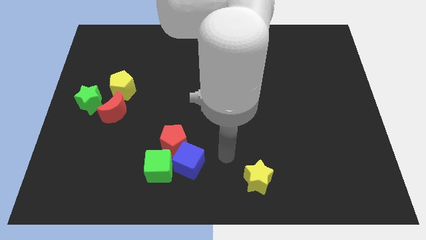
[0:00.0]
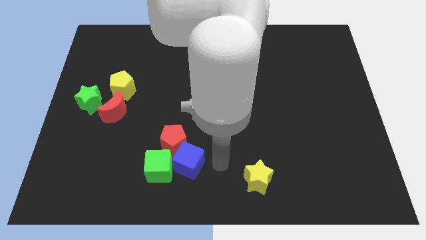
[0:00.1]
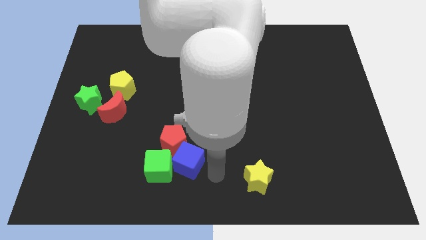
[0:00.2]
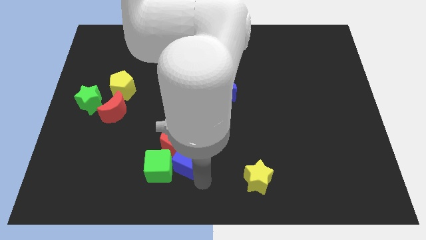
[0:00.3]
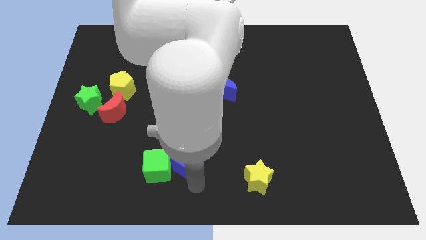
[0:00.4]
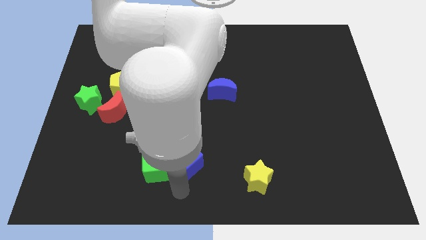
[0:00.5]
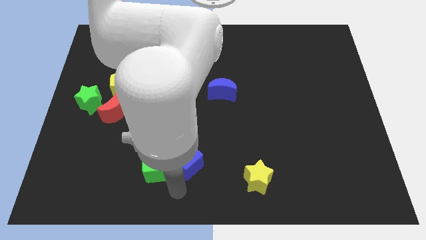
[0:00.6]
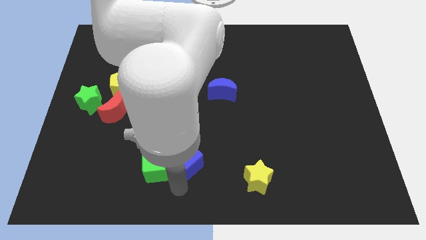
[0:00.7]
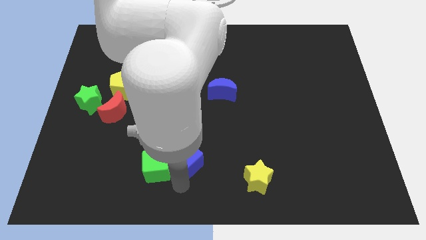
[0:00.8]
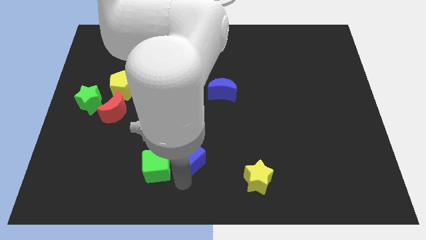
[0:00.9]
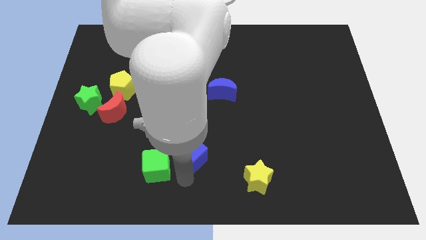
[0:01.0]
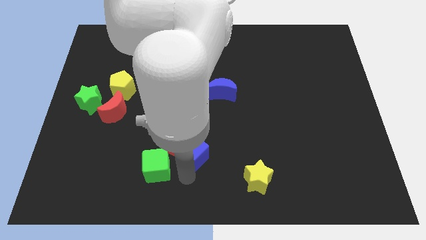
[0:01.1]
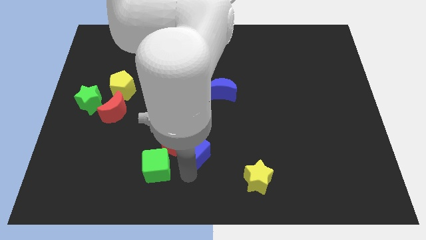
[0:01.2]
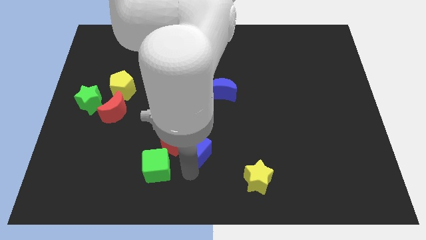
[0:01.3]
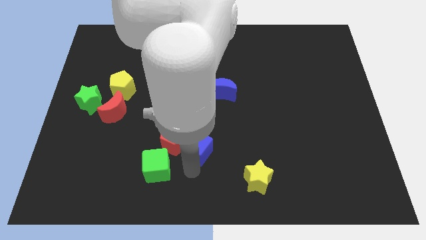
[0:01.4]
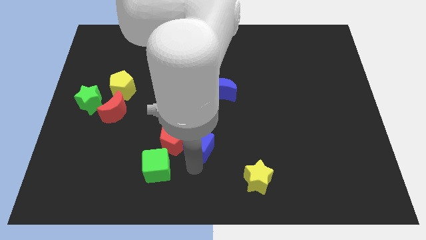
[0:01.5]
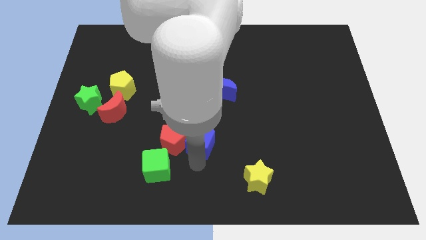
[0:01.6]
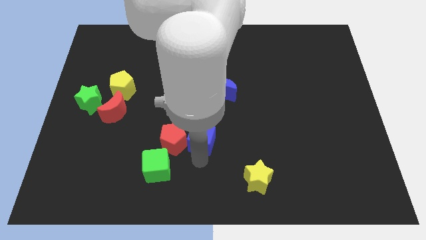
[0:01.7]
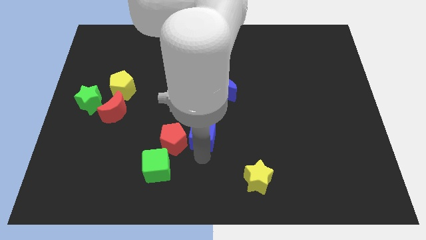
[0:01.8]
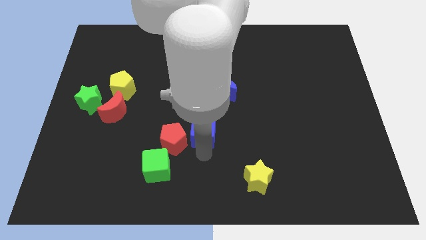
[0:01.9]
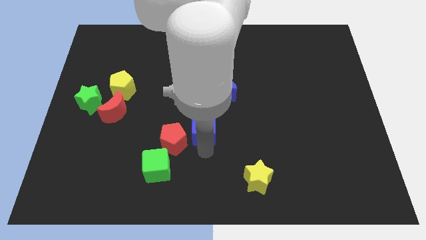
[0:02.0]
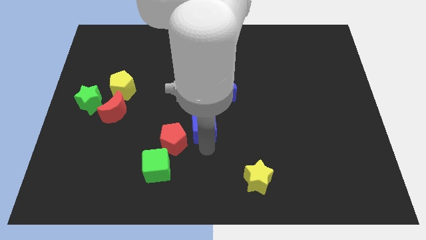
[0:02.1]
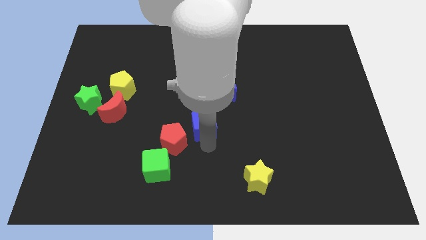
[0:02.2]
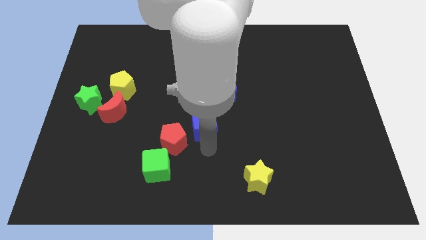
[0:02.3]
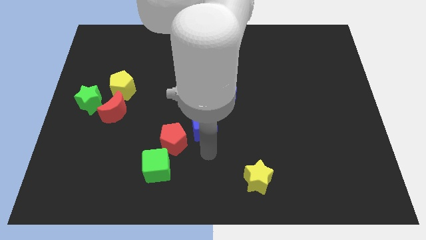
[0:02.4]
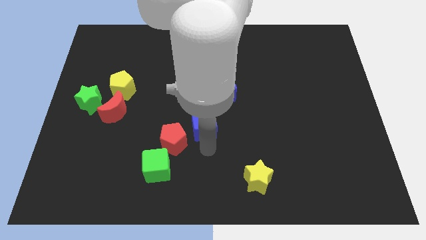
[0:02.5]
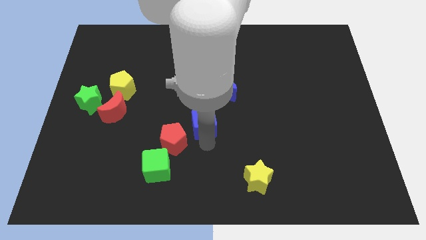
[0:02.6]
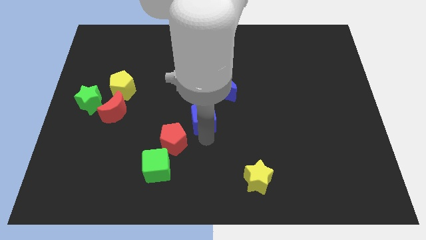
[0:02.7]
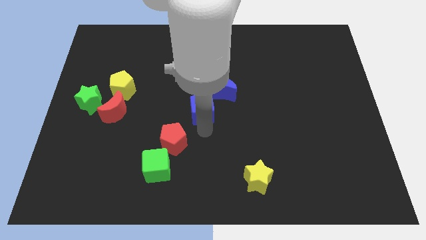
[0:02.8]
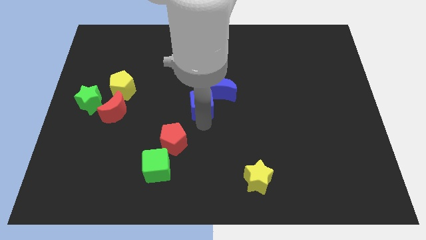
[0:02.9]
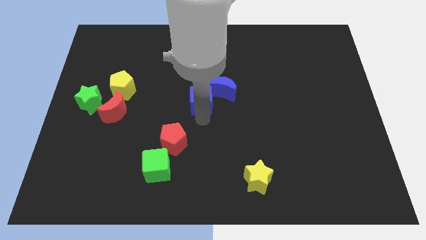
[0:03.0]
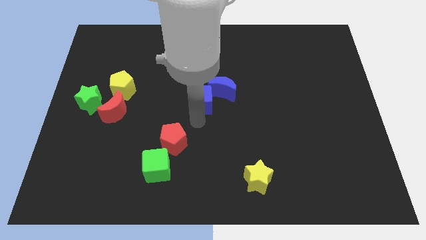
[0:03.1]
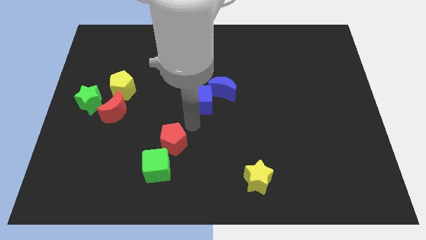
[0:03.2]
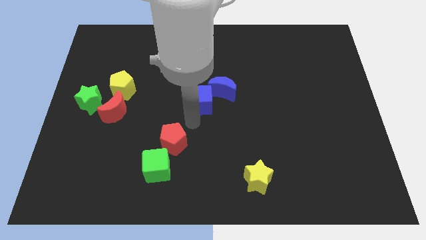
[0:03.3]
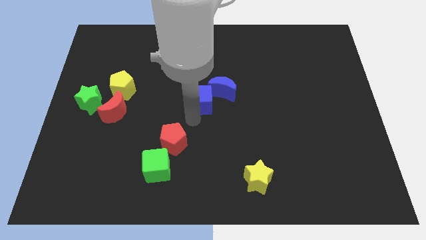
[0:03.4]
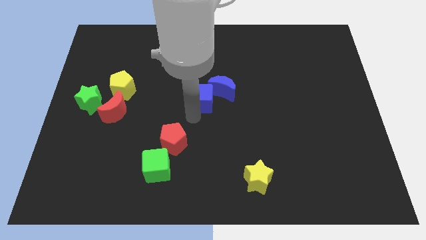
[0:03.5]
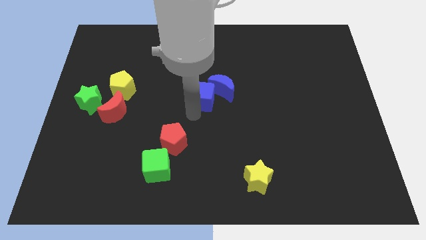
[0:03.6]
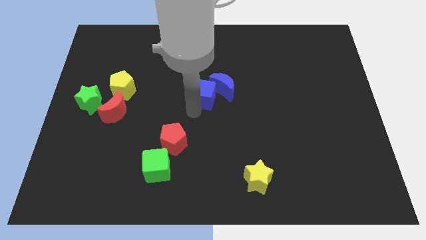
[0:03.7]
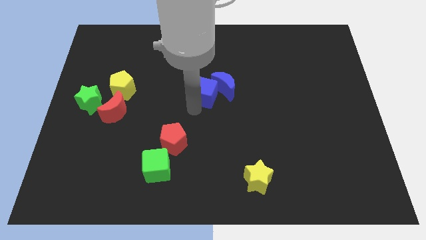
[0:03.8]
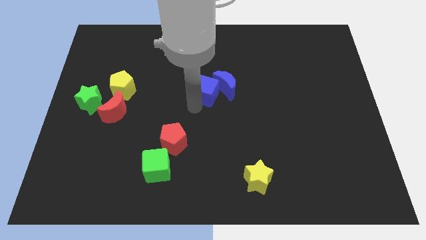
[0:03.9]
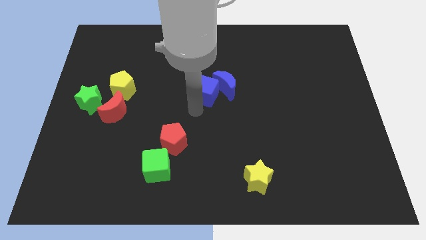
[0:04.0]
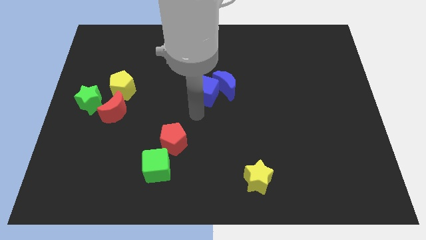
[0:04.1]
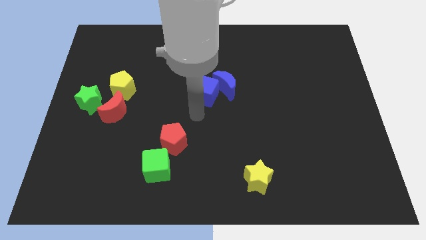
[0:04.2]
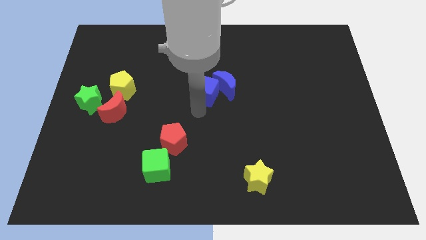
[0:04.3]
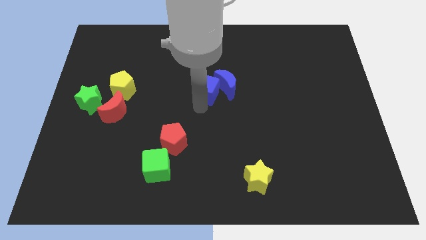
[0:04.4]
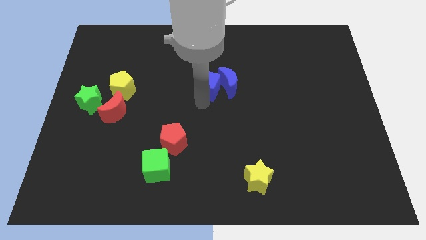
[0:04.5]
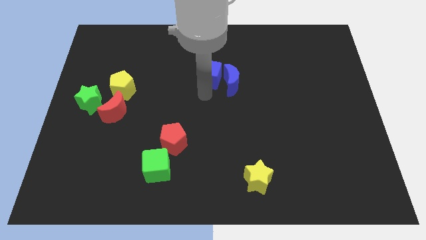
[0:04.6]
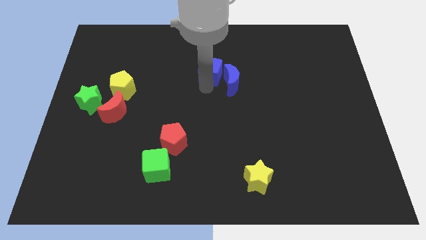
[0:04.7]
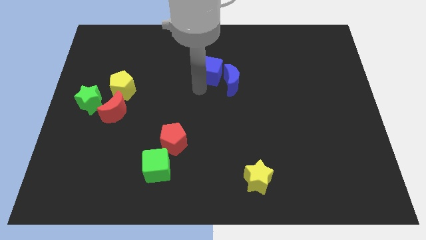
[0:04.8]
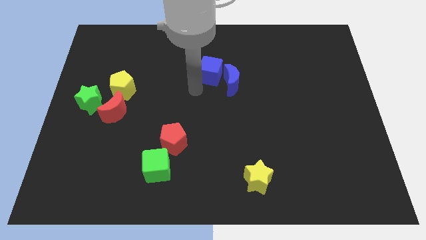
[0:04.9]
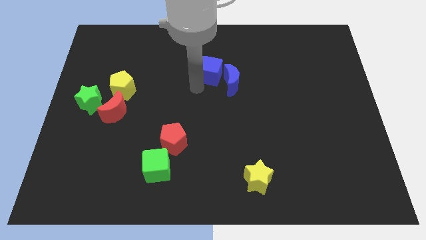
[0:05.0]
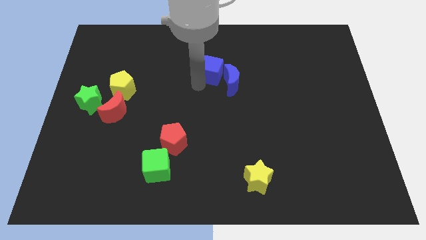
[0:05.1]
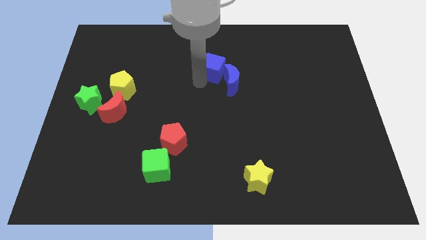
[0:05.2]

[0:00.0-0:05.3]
slide the blue cube to the top of the blue moon

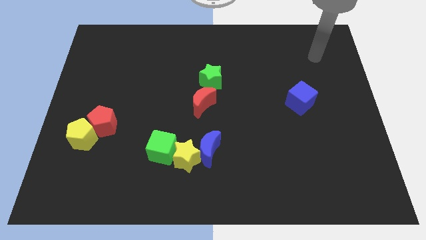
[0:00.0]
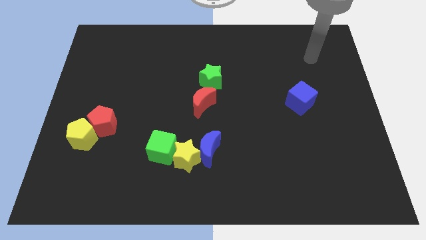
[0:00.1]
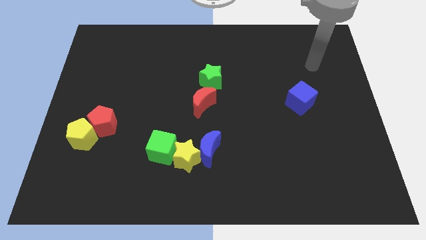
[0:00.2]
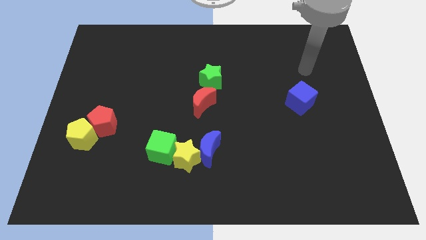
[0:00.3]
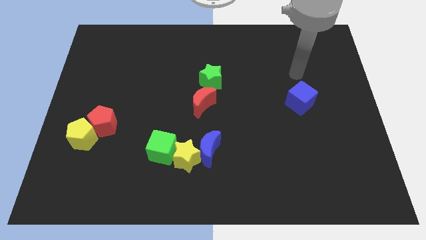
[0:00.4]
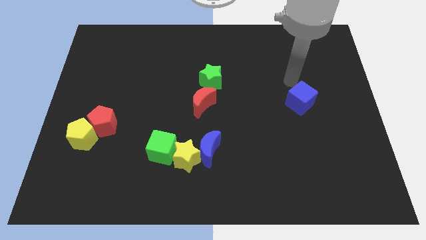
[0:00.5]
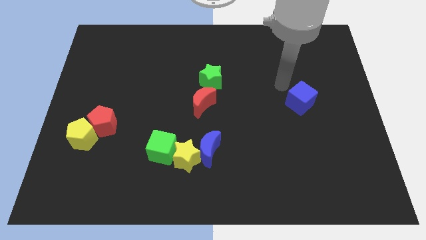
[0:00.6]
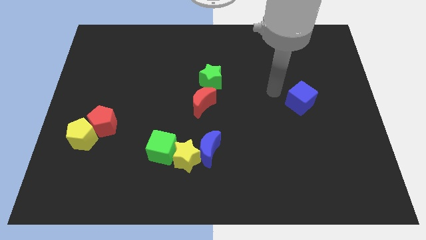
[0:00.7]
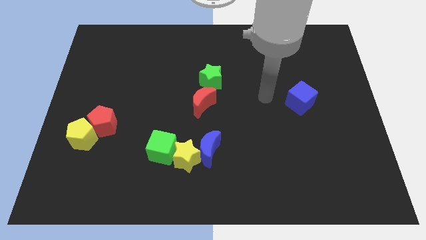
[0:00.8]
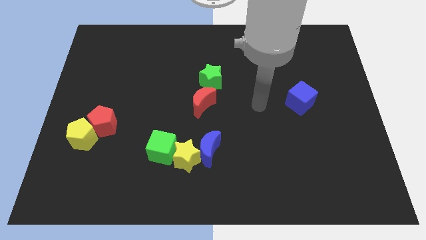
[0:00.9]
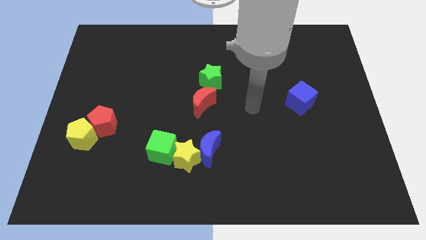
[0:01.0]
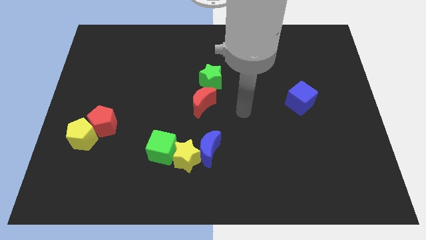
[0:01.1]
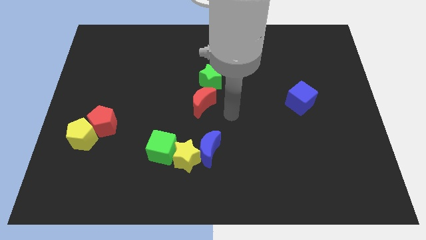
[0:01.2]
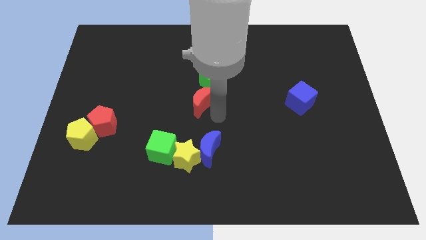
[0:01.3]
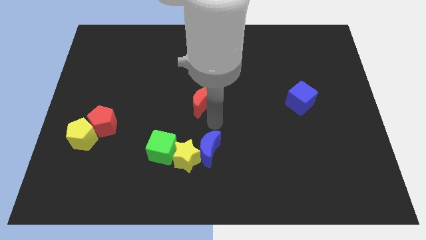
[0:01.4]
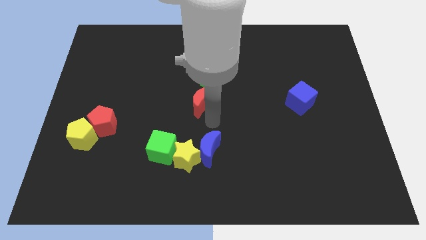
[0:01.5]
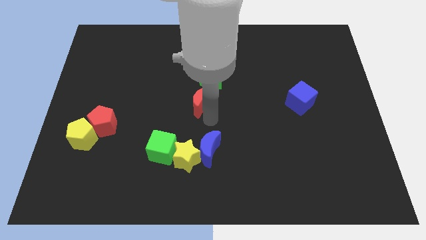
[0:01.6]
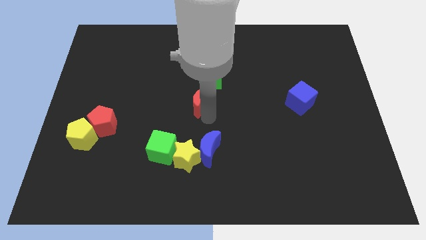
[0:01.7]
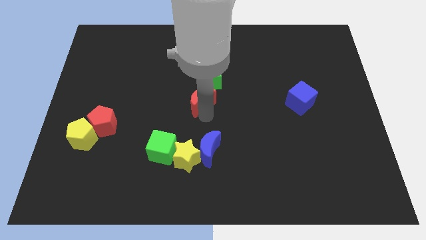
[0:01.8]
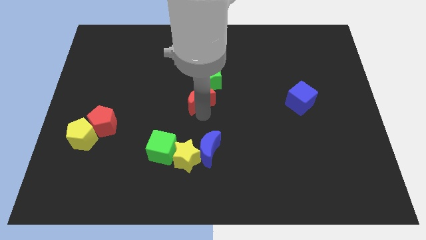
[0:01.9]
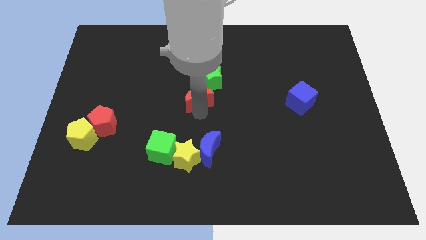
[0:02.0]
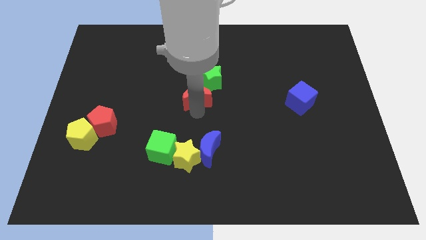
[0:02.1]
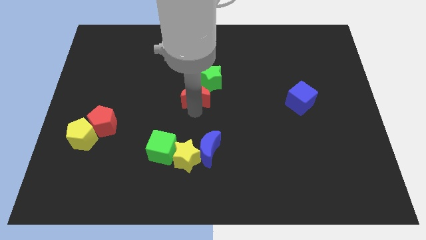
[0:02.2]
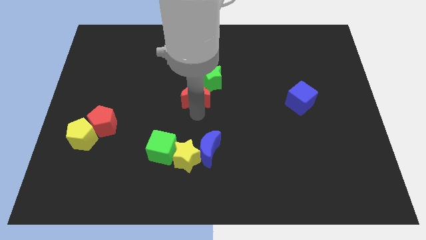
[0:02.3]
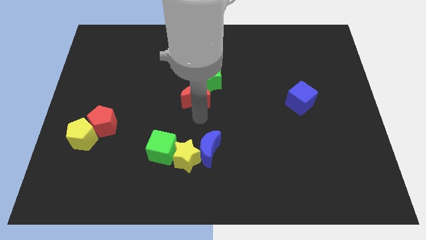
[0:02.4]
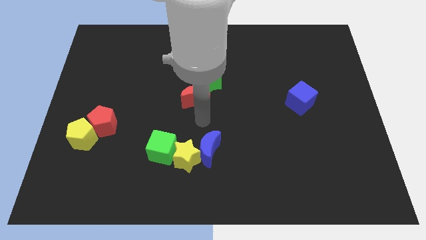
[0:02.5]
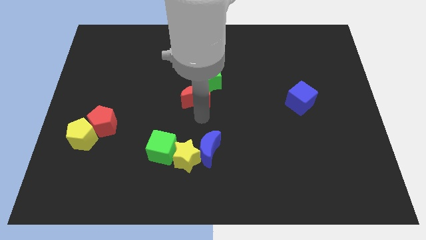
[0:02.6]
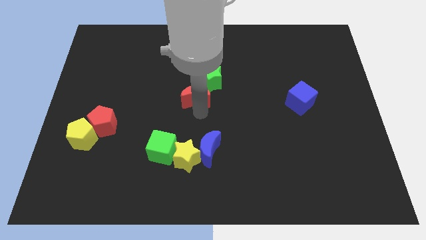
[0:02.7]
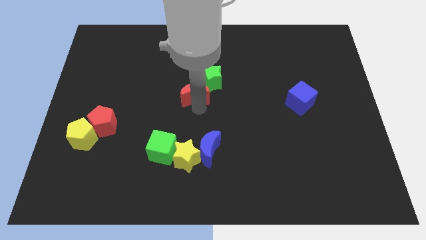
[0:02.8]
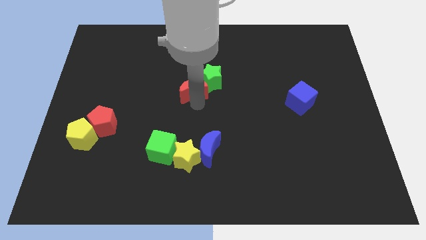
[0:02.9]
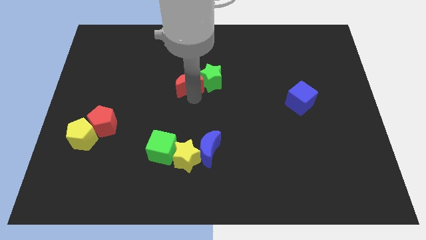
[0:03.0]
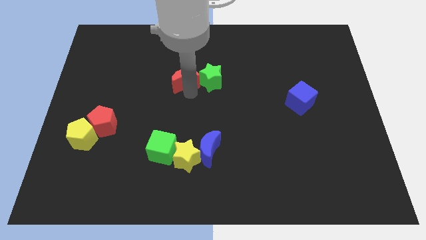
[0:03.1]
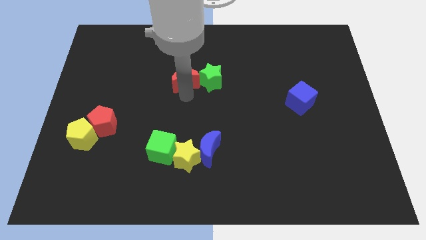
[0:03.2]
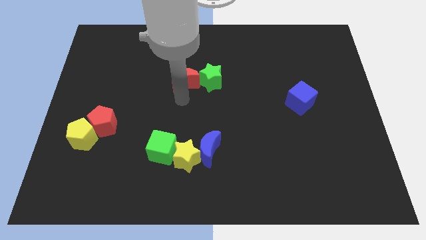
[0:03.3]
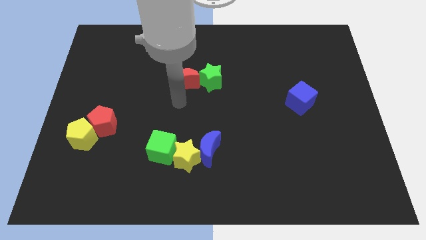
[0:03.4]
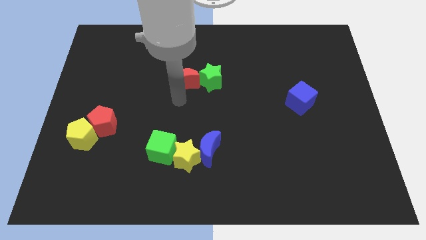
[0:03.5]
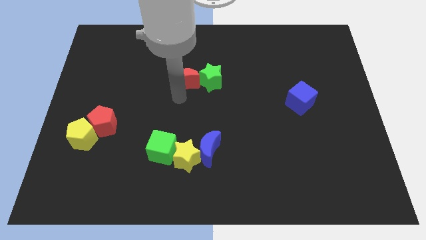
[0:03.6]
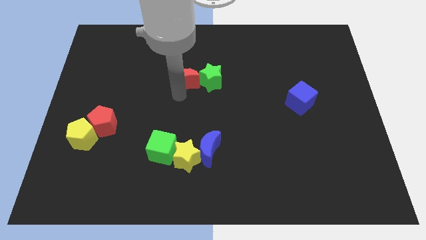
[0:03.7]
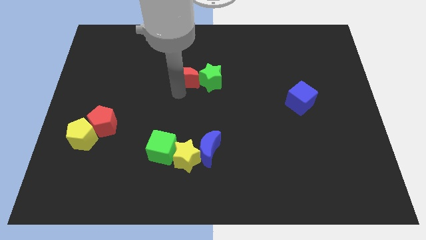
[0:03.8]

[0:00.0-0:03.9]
move the red moon diagonally up and to the left of the green star
